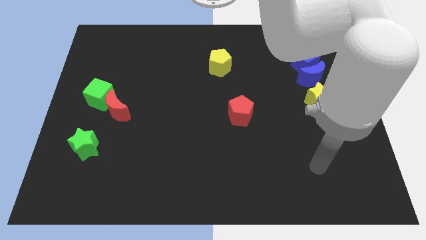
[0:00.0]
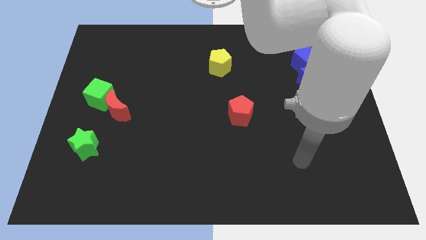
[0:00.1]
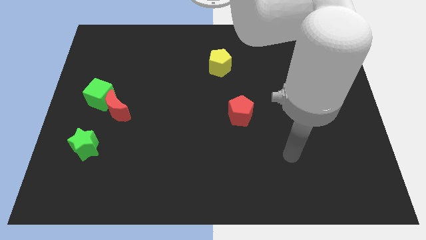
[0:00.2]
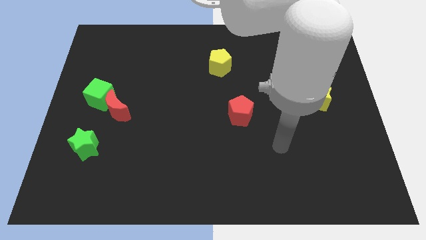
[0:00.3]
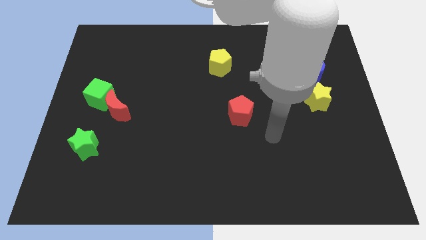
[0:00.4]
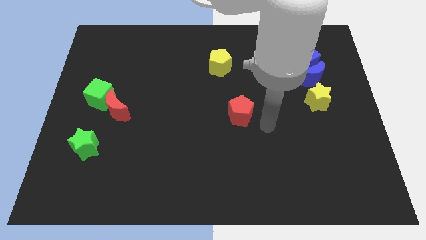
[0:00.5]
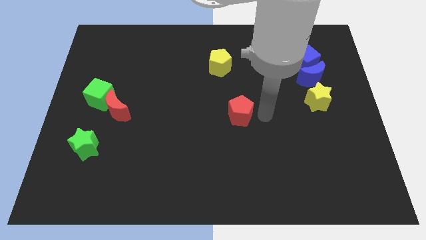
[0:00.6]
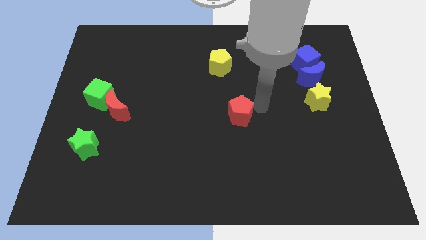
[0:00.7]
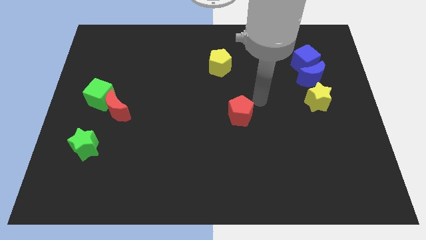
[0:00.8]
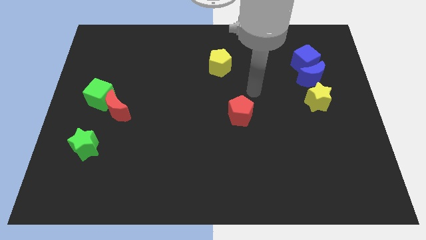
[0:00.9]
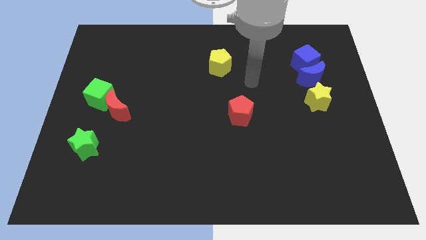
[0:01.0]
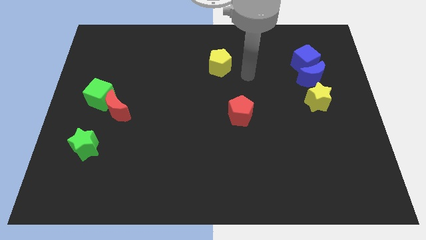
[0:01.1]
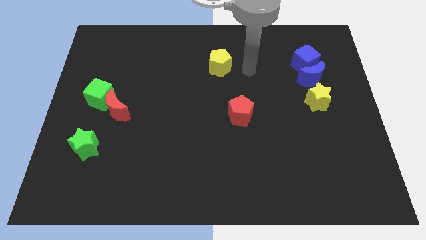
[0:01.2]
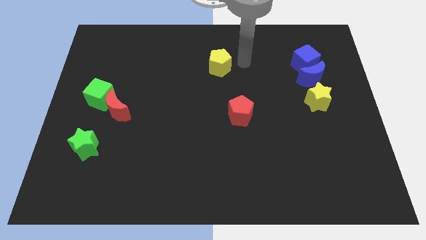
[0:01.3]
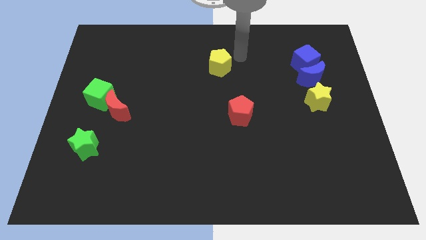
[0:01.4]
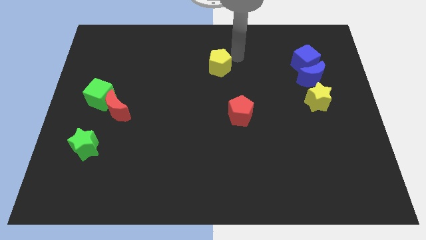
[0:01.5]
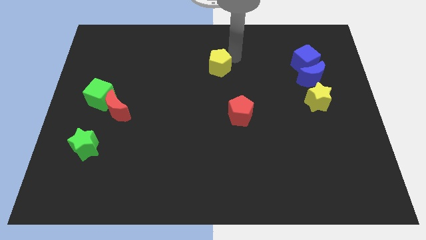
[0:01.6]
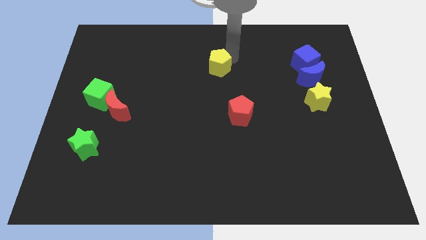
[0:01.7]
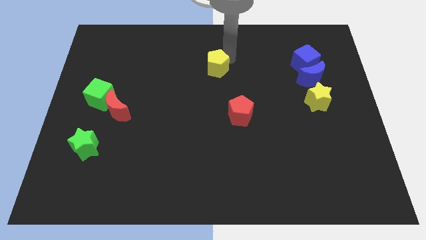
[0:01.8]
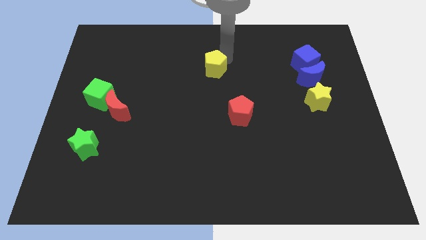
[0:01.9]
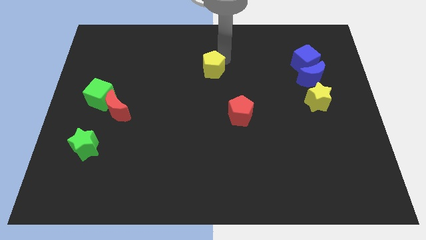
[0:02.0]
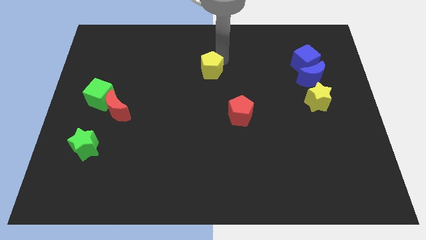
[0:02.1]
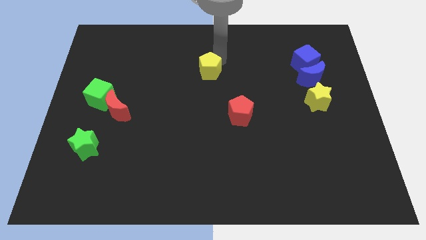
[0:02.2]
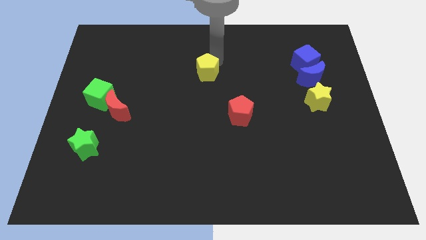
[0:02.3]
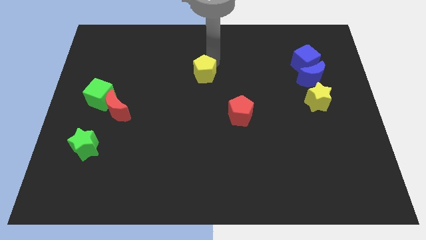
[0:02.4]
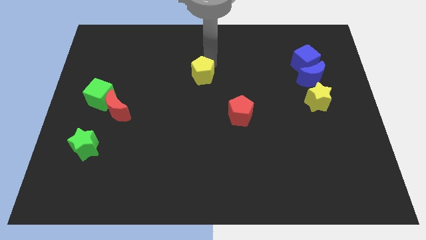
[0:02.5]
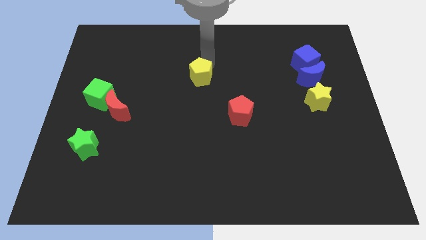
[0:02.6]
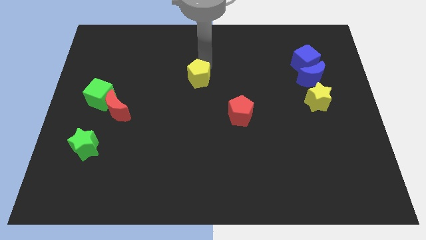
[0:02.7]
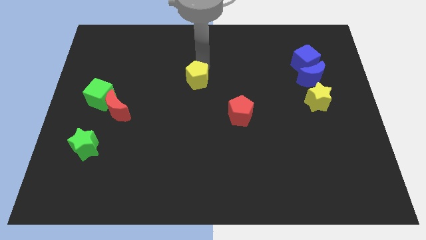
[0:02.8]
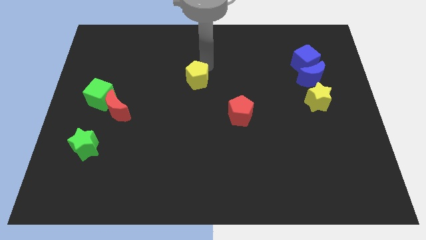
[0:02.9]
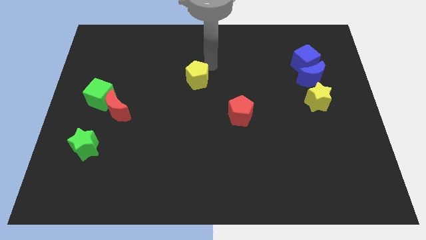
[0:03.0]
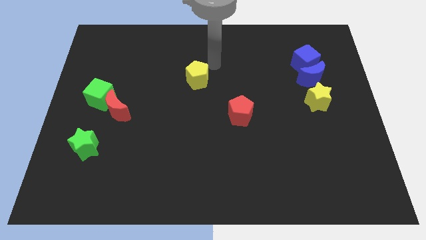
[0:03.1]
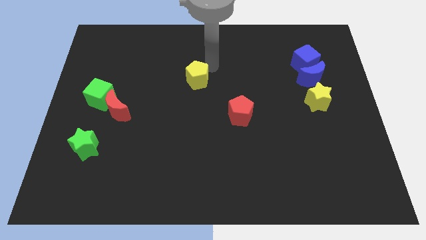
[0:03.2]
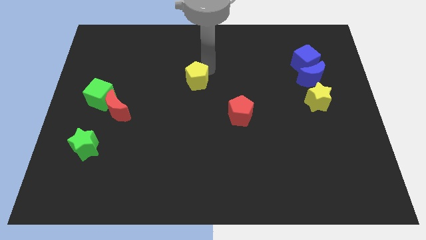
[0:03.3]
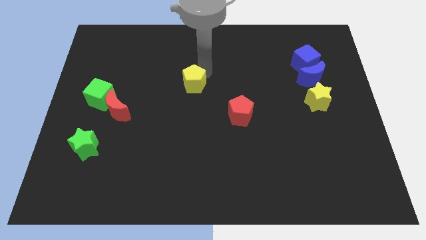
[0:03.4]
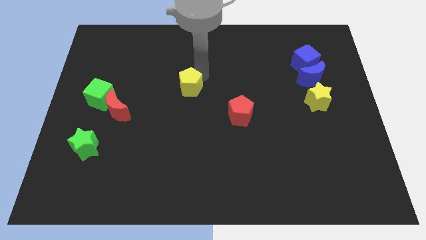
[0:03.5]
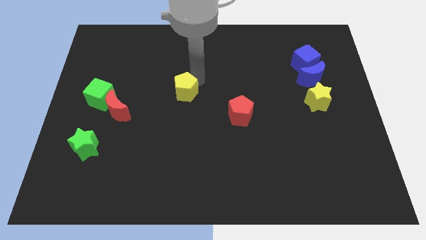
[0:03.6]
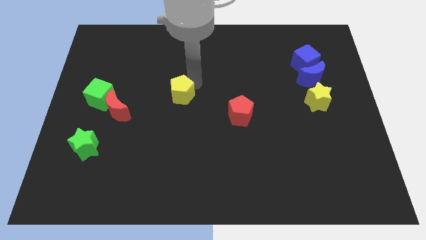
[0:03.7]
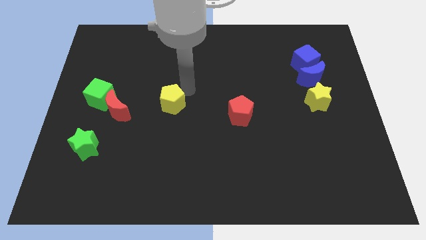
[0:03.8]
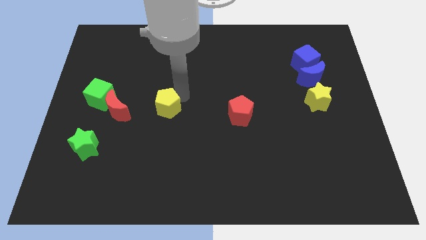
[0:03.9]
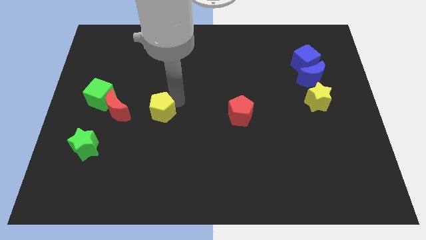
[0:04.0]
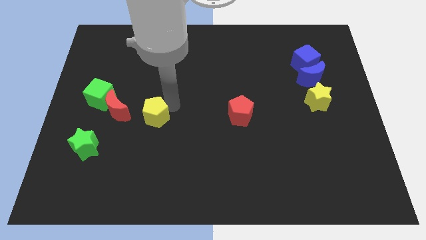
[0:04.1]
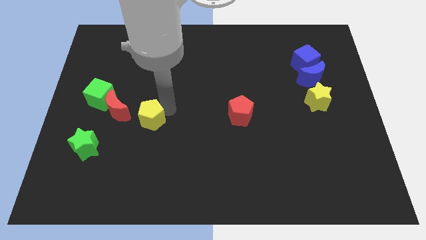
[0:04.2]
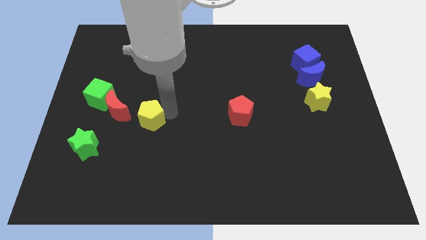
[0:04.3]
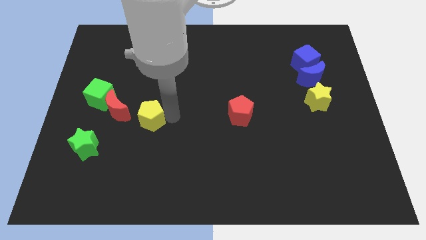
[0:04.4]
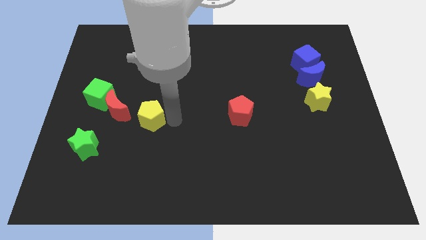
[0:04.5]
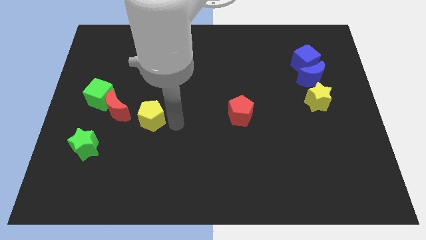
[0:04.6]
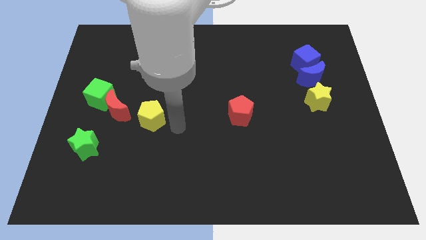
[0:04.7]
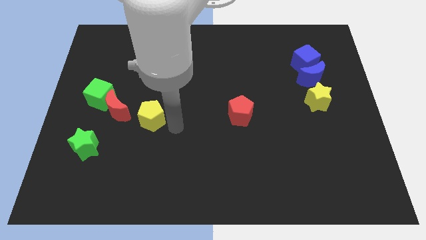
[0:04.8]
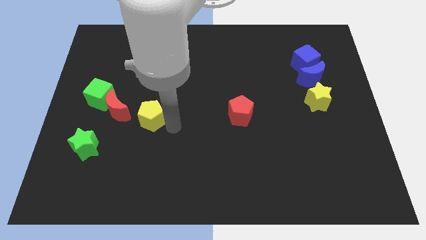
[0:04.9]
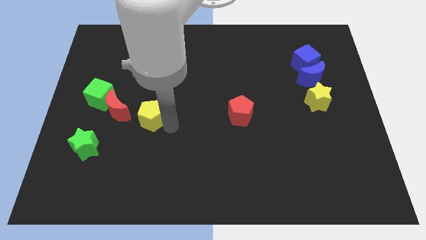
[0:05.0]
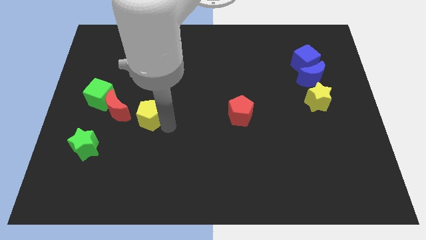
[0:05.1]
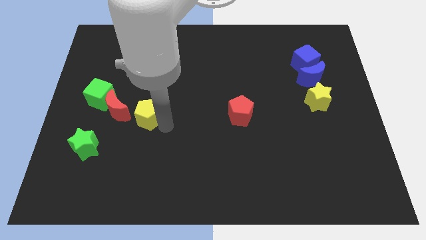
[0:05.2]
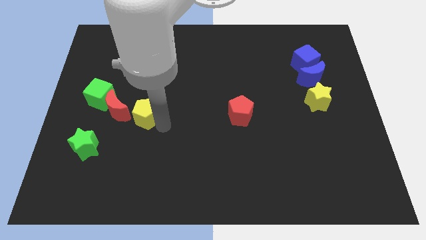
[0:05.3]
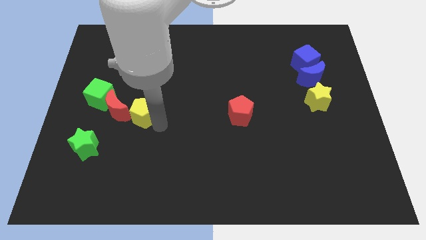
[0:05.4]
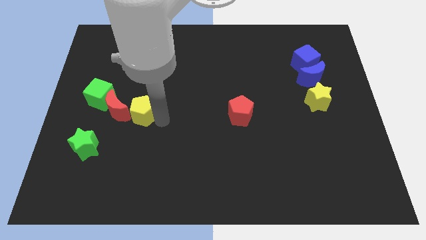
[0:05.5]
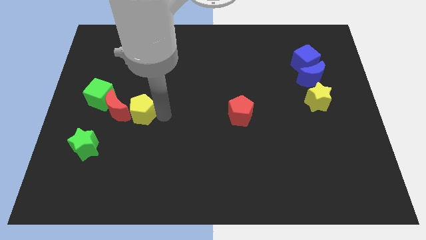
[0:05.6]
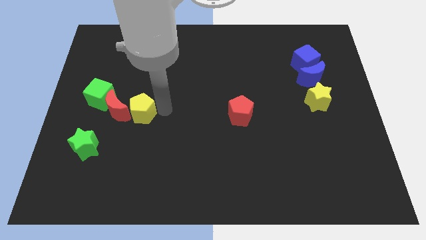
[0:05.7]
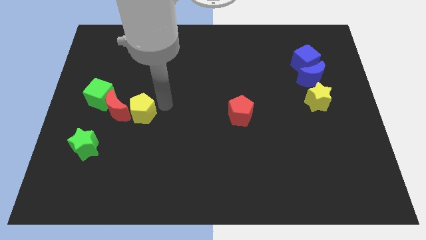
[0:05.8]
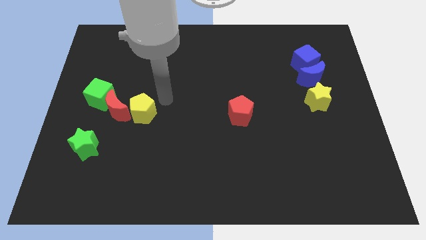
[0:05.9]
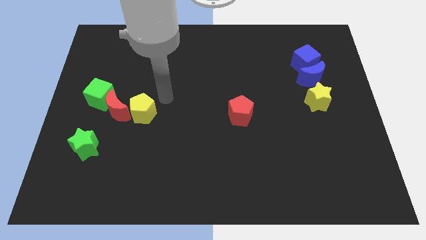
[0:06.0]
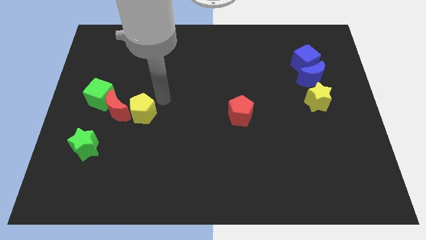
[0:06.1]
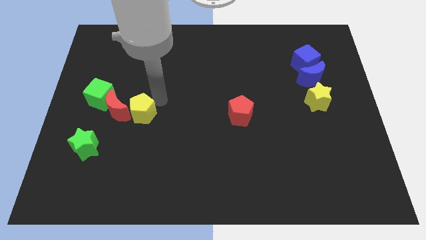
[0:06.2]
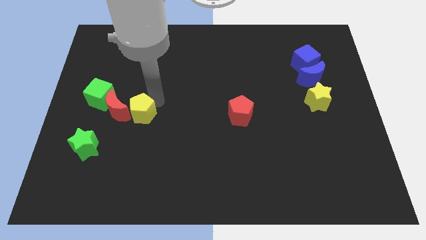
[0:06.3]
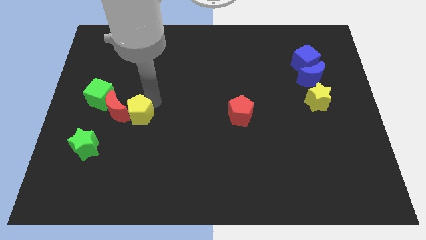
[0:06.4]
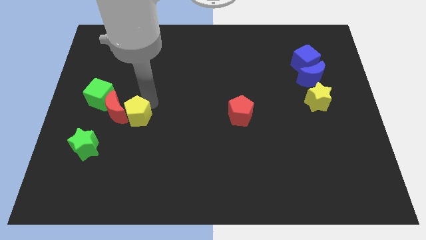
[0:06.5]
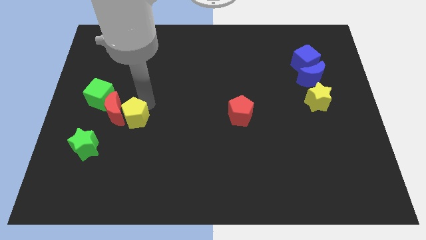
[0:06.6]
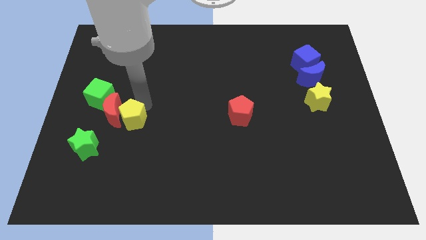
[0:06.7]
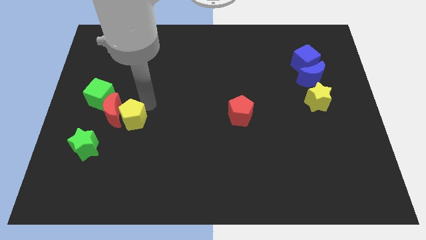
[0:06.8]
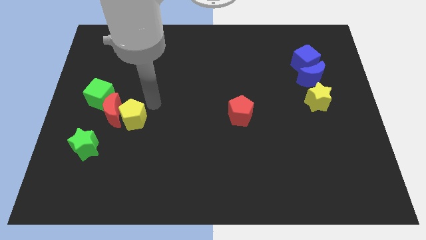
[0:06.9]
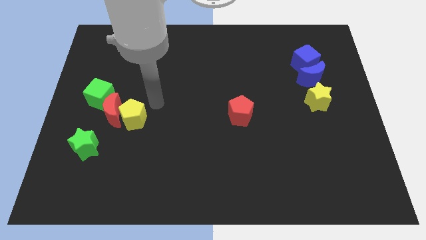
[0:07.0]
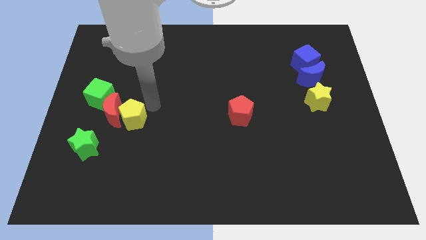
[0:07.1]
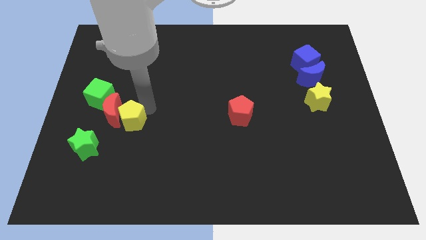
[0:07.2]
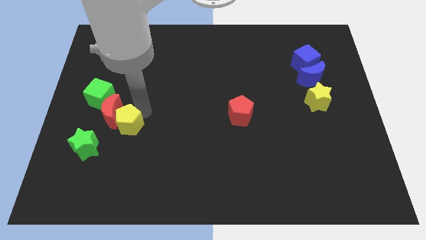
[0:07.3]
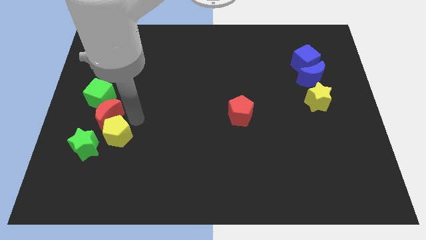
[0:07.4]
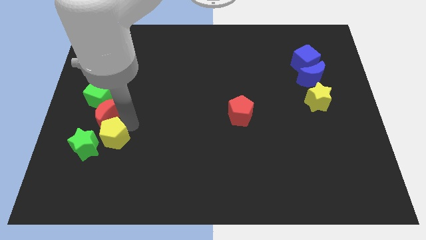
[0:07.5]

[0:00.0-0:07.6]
put the yellow pentagon next to the green star

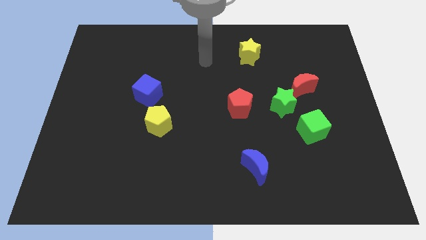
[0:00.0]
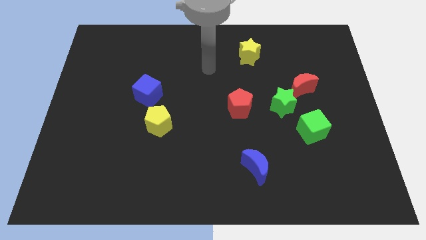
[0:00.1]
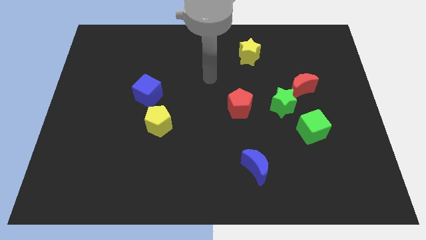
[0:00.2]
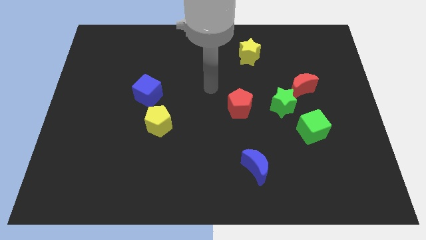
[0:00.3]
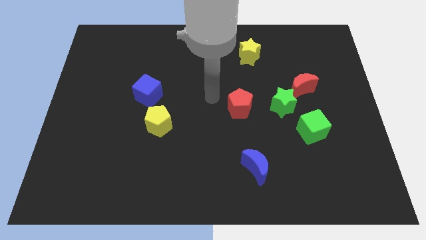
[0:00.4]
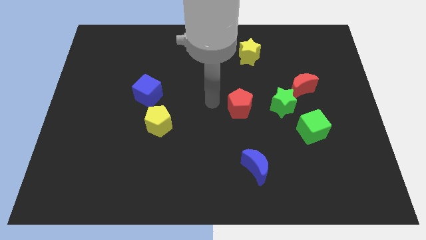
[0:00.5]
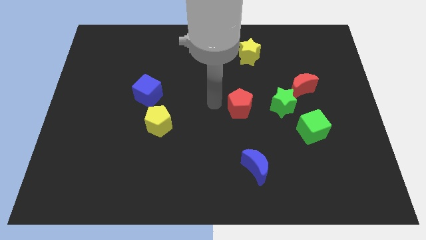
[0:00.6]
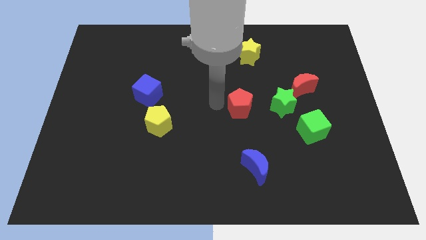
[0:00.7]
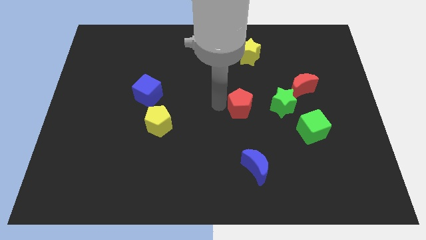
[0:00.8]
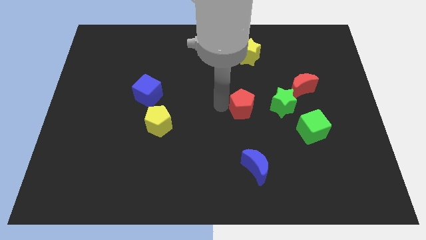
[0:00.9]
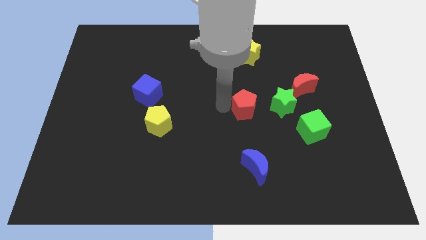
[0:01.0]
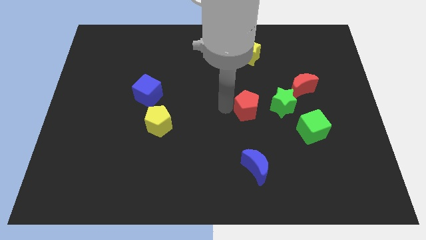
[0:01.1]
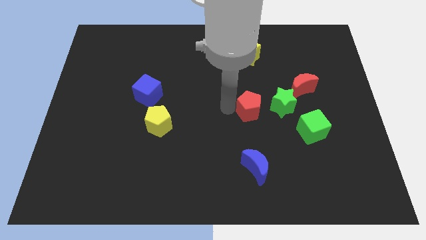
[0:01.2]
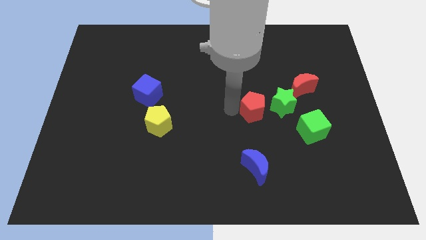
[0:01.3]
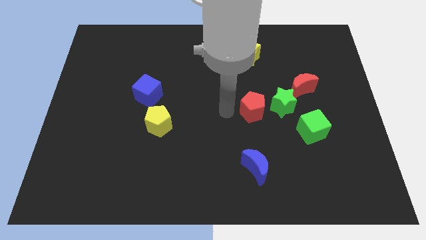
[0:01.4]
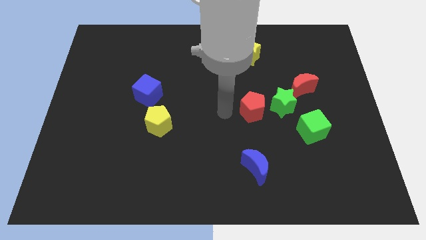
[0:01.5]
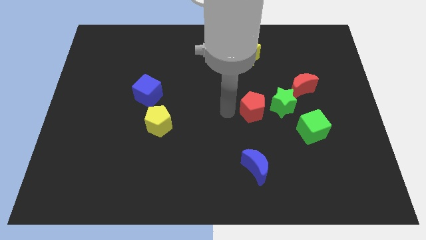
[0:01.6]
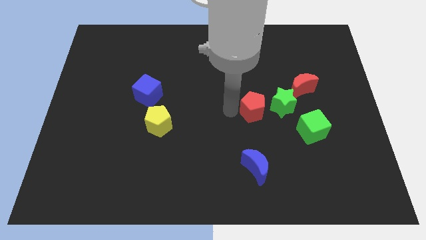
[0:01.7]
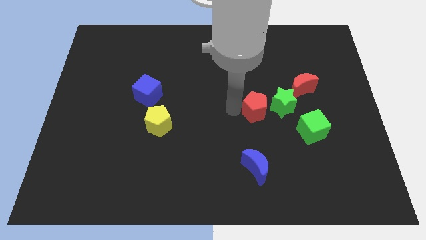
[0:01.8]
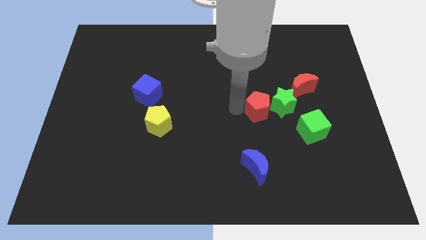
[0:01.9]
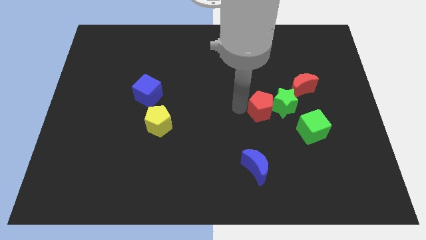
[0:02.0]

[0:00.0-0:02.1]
push the red pentagon close to the green star
